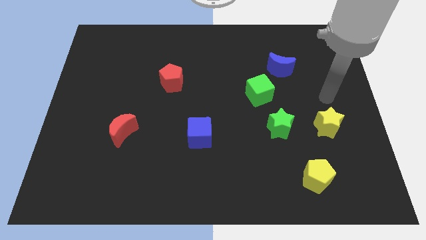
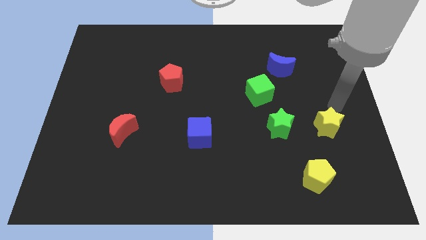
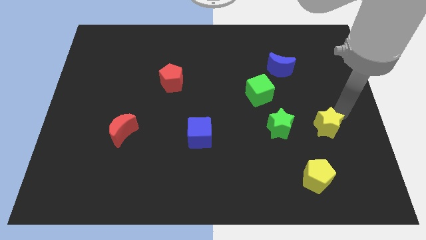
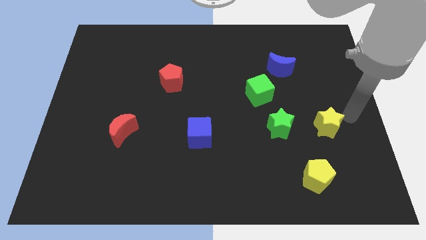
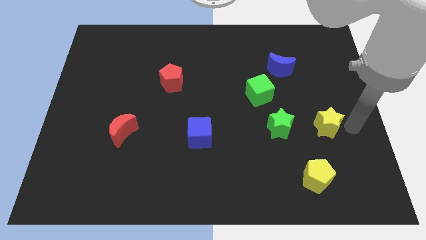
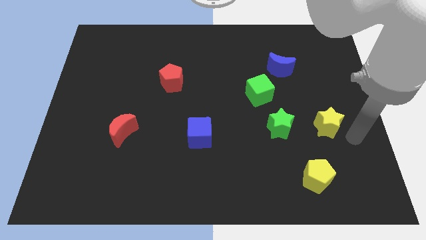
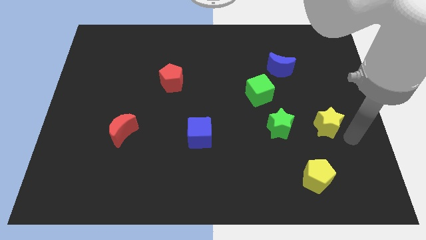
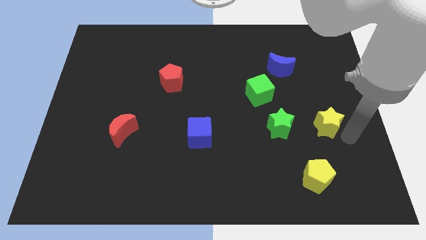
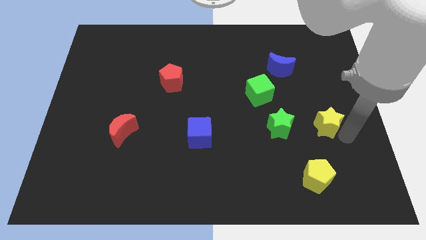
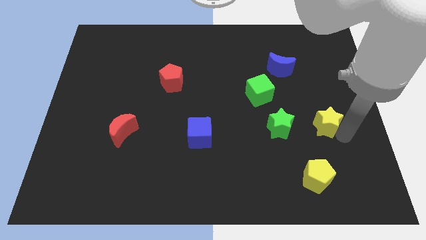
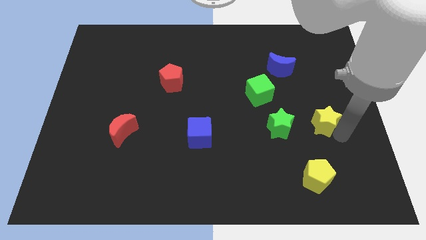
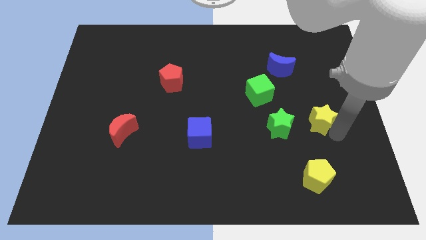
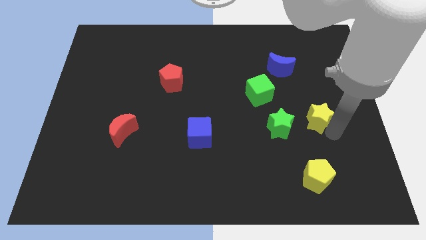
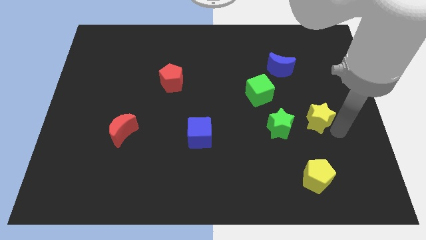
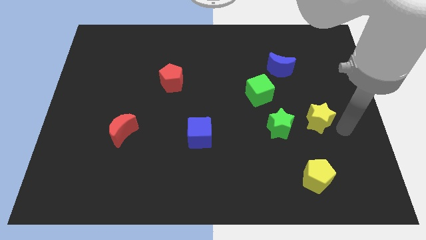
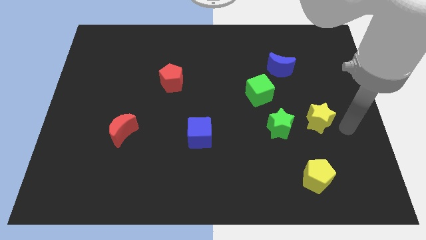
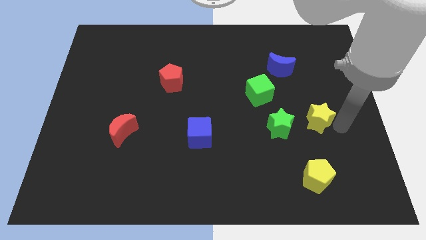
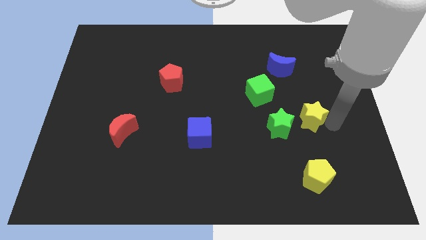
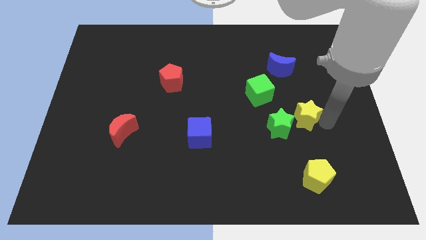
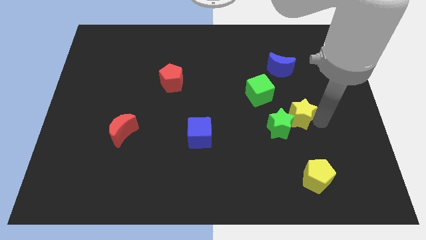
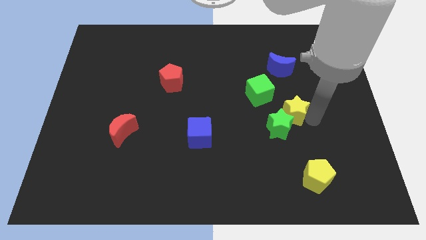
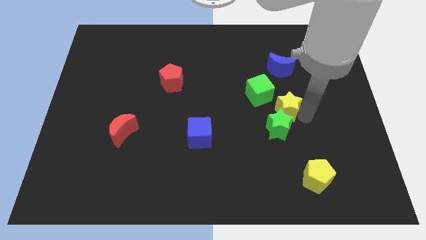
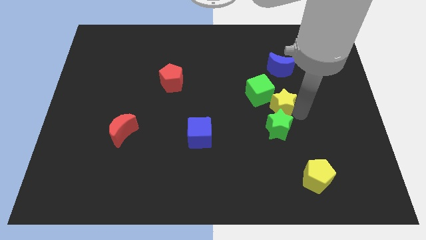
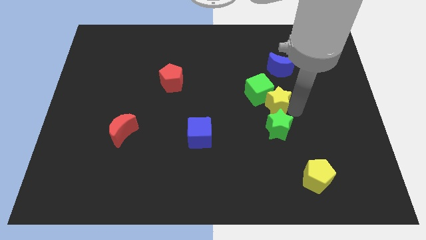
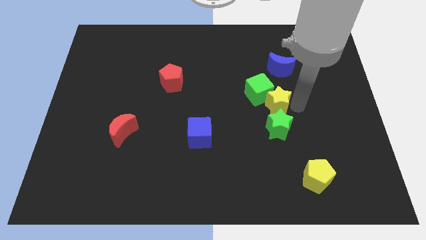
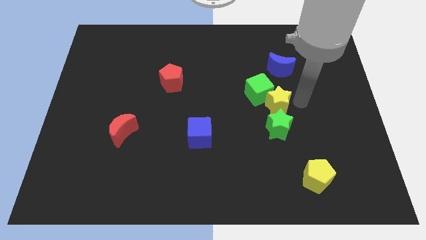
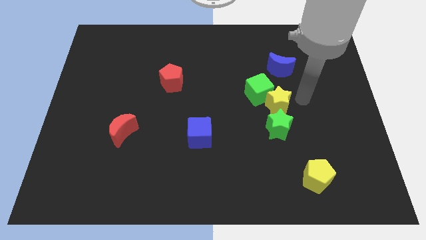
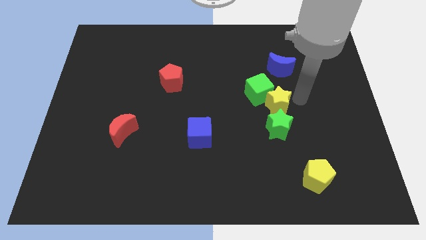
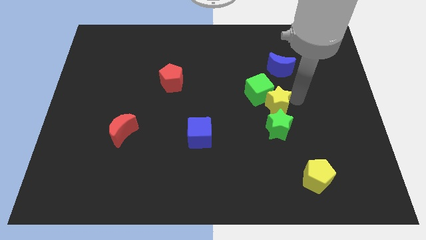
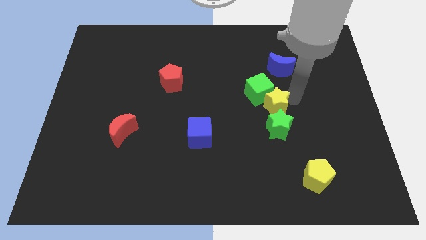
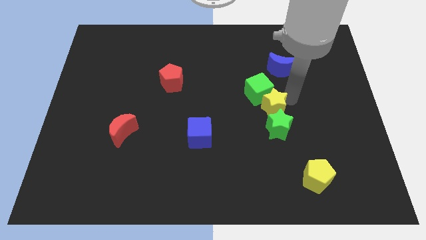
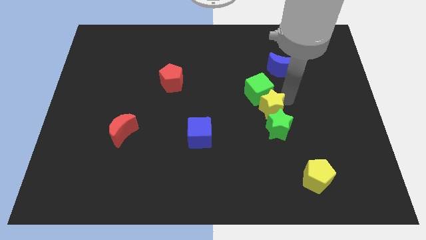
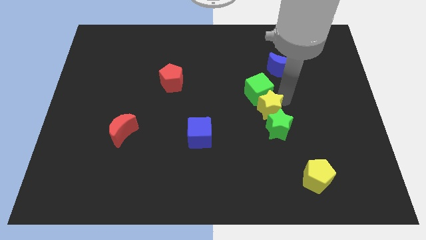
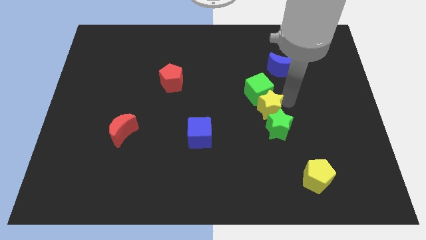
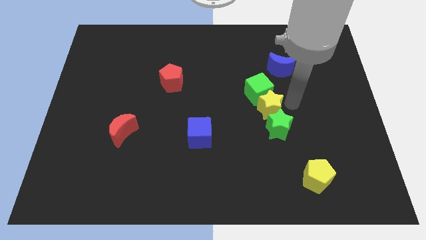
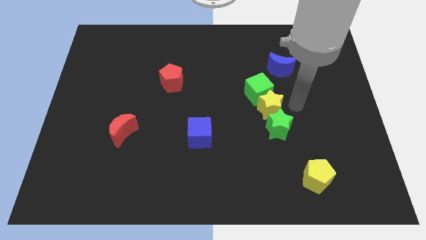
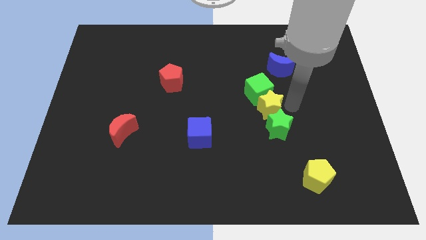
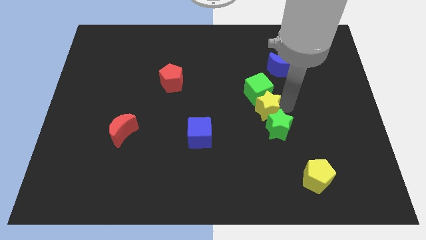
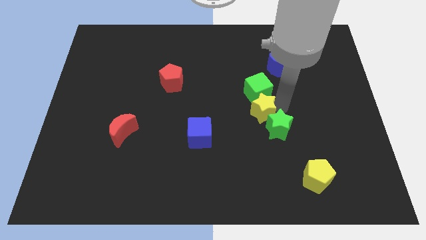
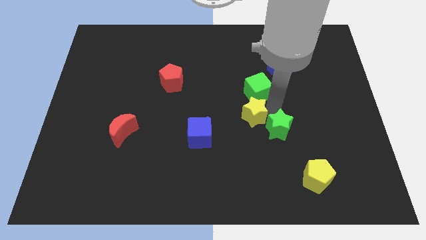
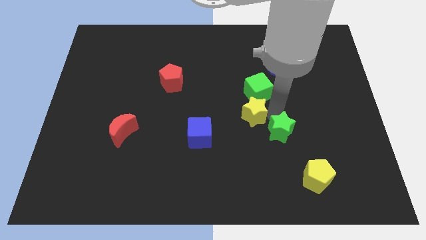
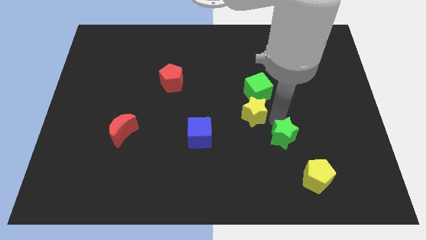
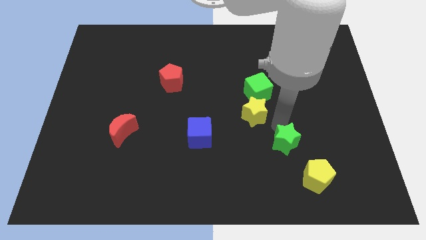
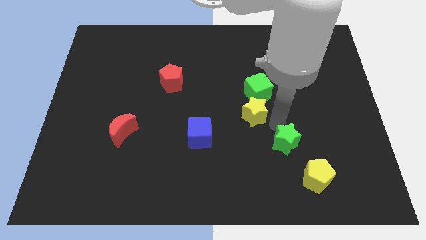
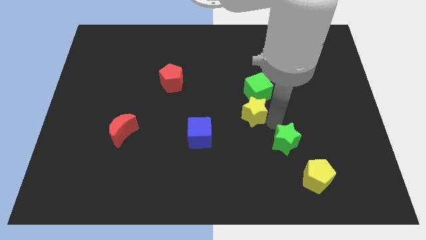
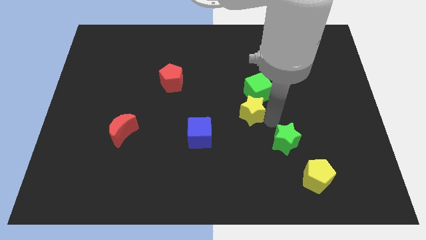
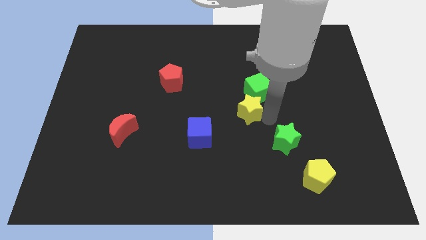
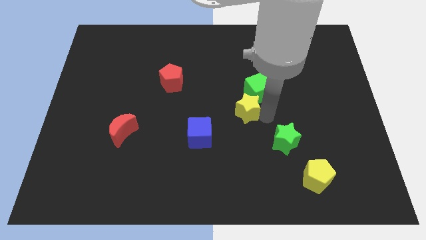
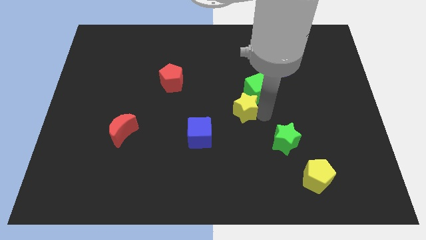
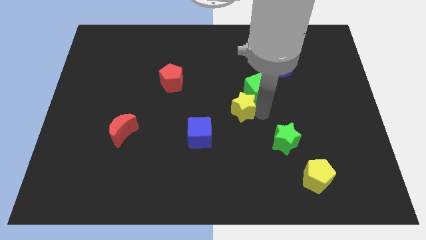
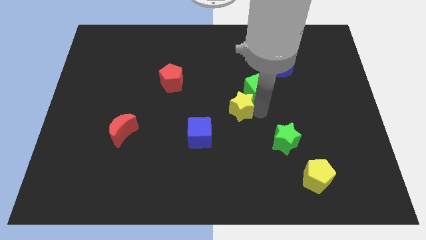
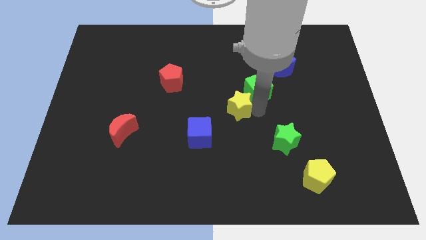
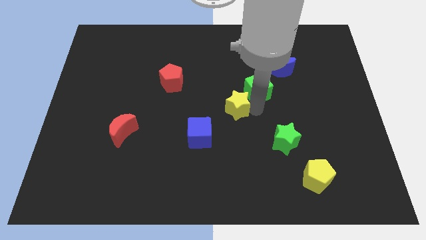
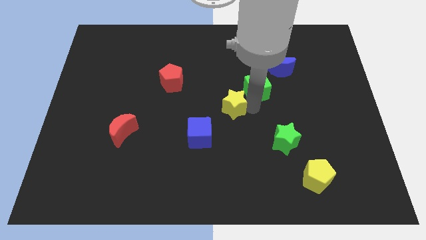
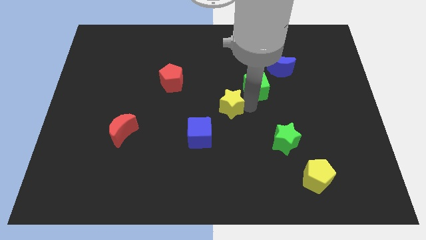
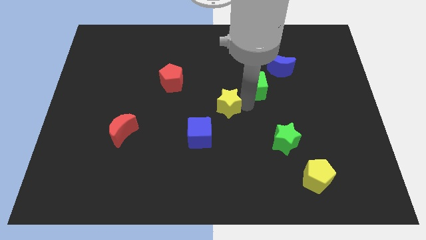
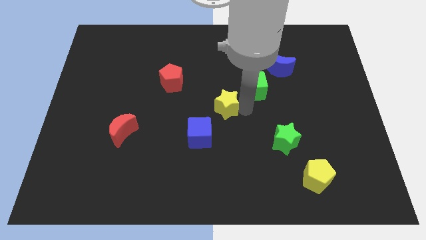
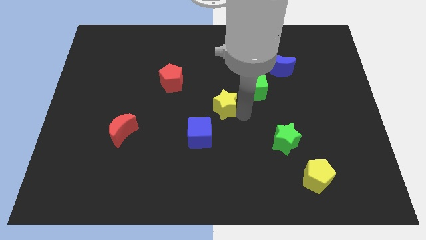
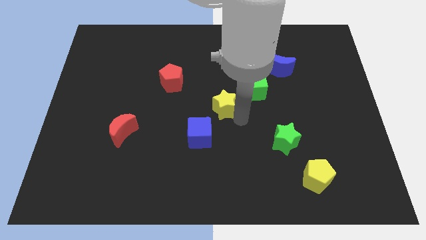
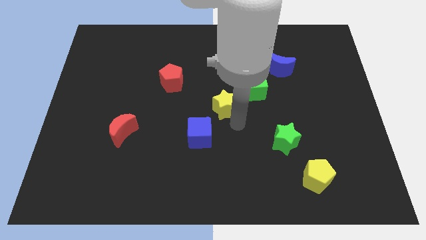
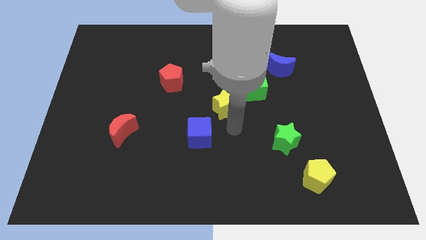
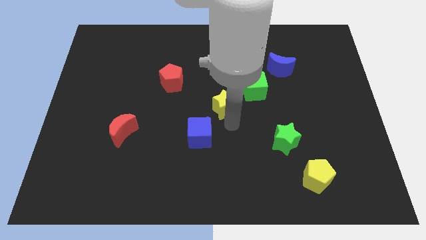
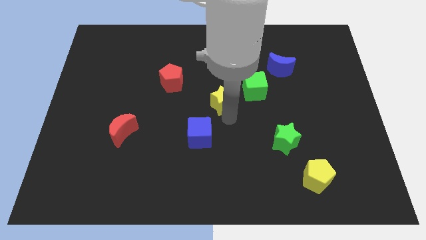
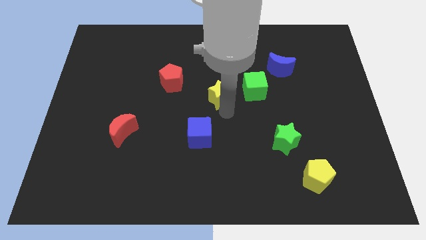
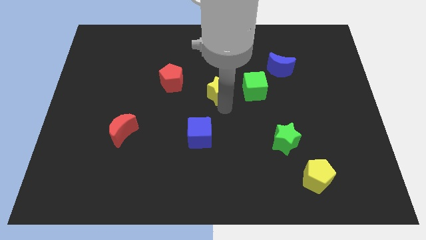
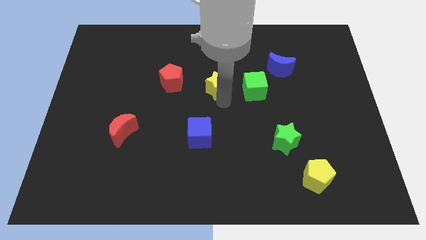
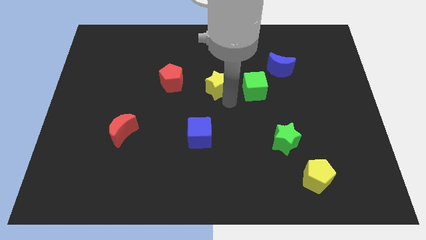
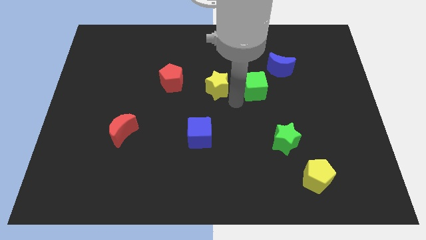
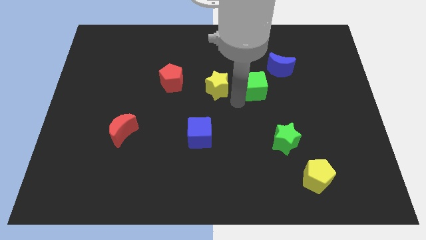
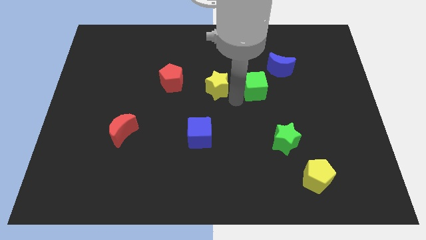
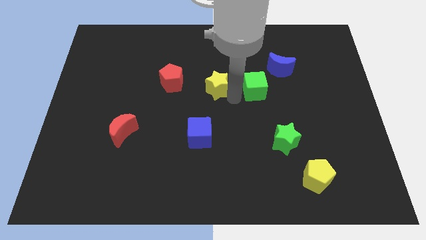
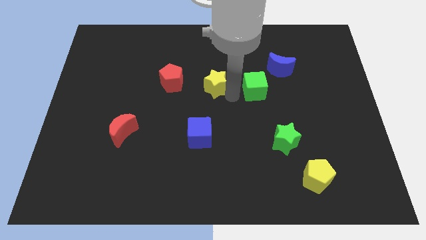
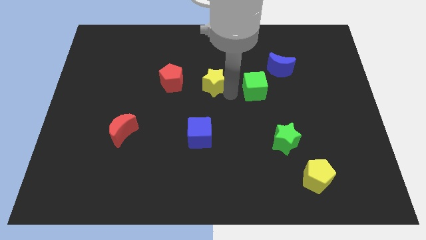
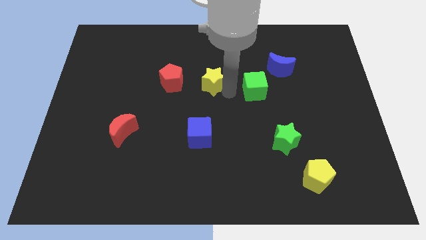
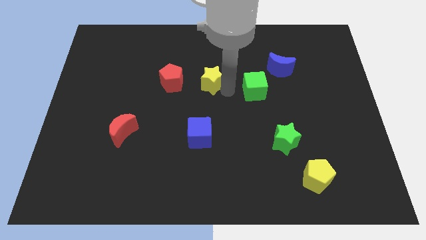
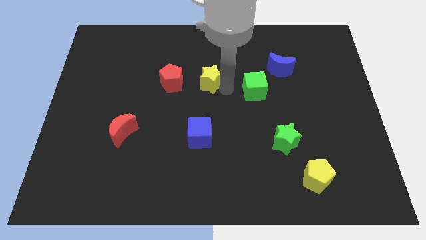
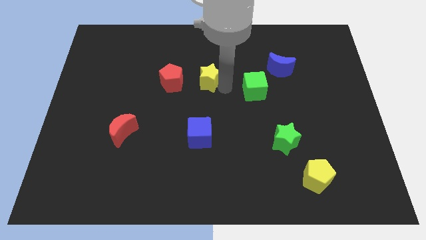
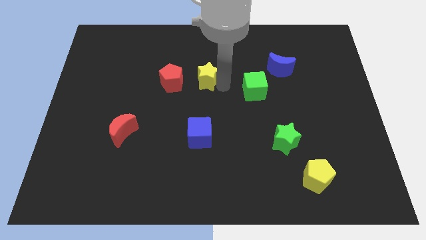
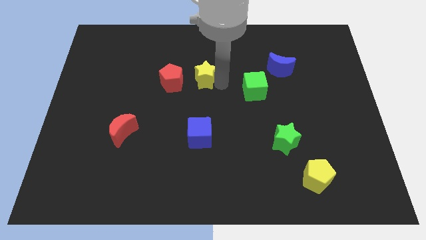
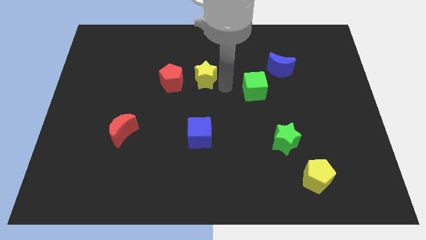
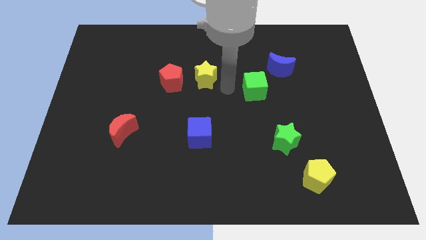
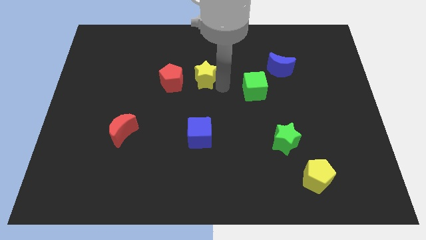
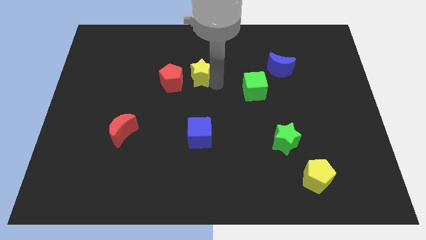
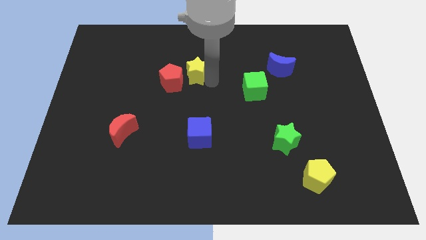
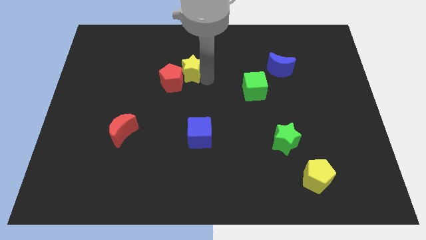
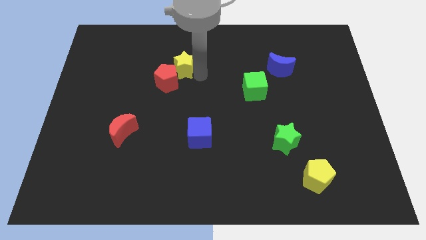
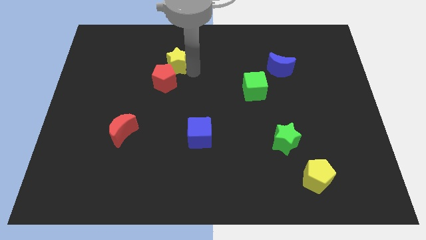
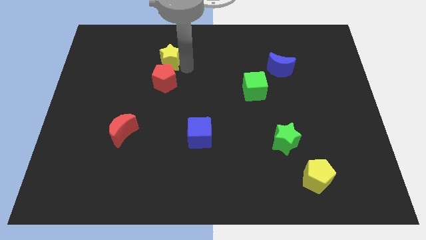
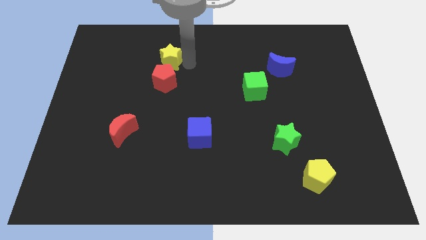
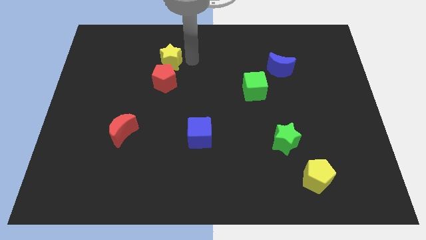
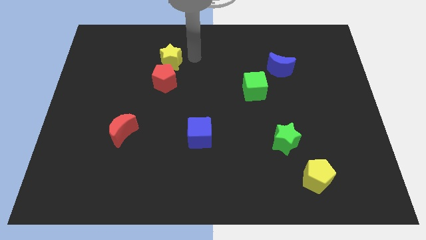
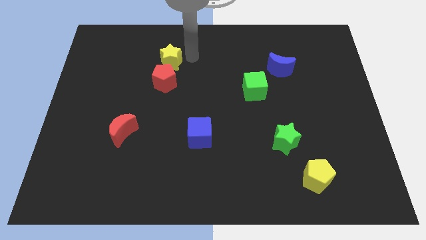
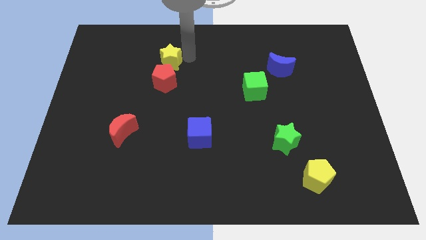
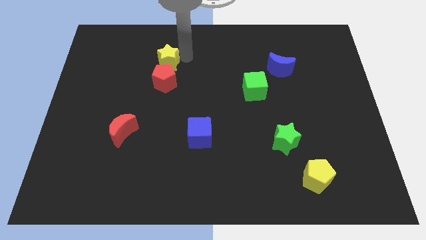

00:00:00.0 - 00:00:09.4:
push the yellow star to the top left of the red pentagon
